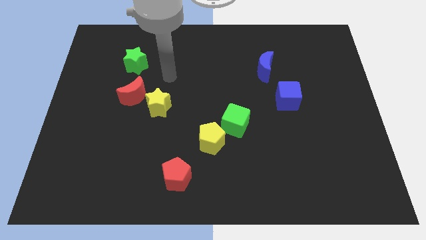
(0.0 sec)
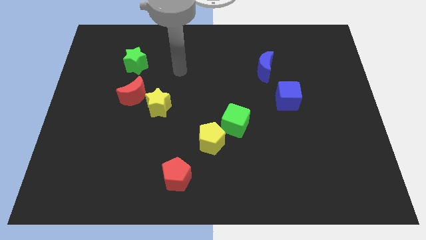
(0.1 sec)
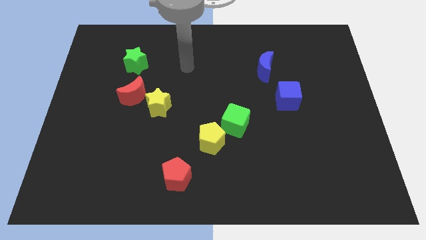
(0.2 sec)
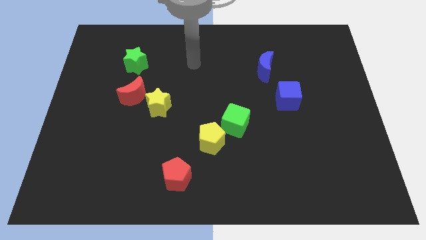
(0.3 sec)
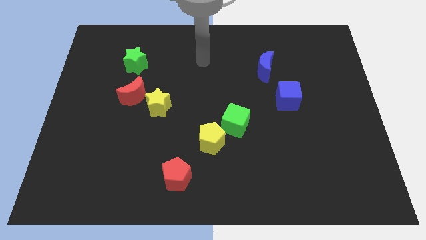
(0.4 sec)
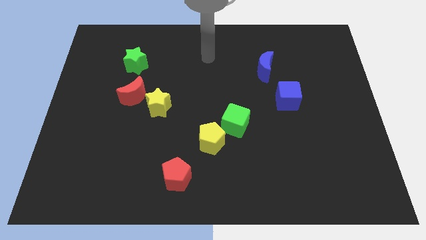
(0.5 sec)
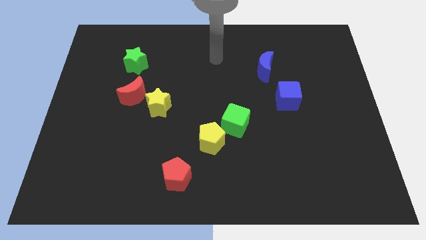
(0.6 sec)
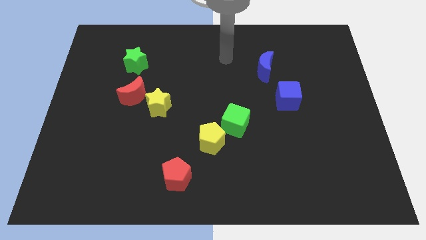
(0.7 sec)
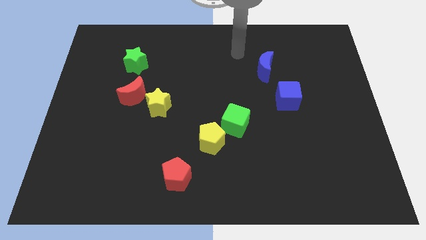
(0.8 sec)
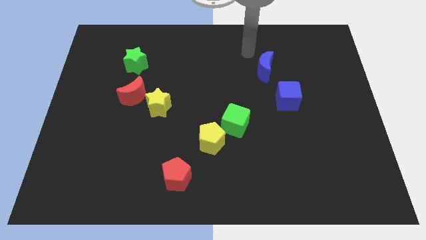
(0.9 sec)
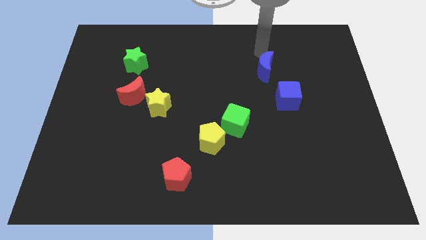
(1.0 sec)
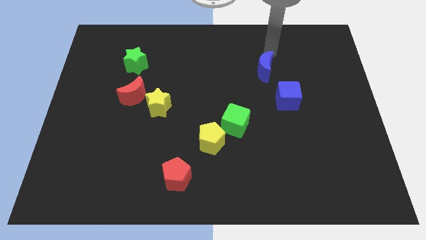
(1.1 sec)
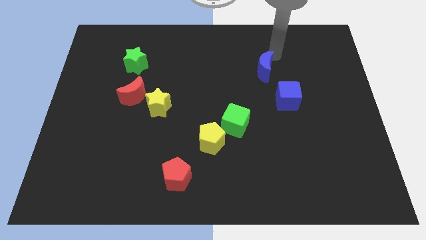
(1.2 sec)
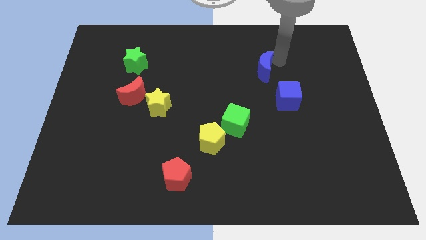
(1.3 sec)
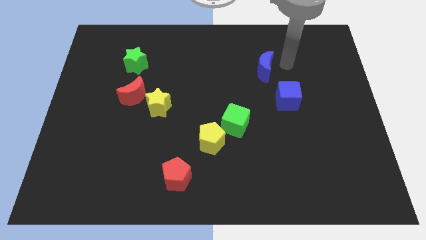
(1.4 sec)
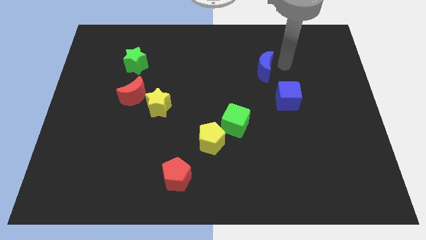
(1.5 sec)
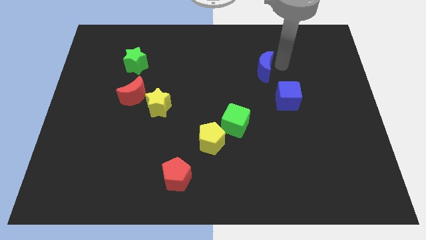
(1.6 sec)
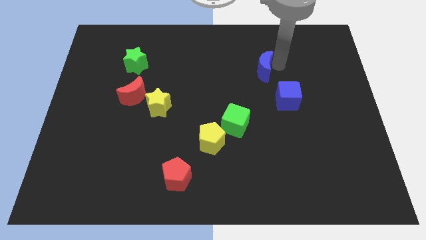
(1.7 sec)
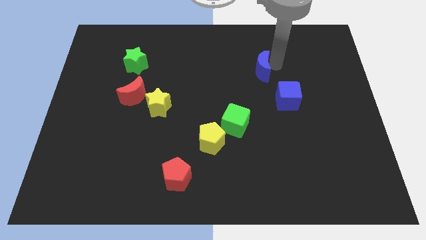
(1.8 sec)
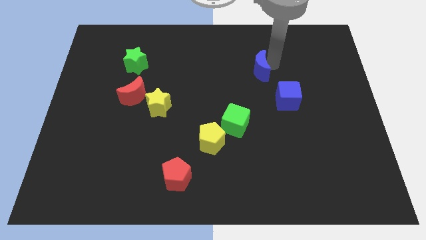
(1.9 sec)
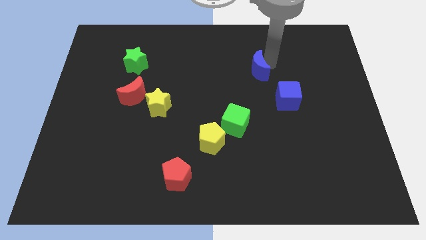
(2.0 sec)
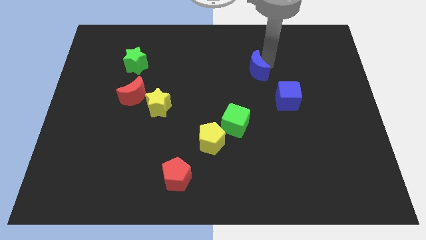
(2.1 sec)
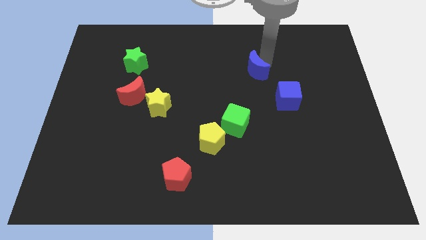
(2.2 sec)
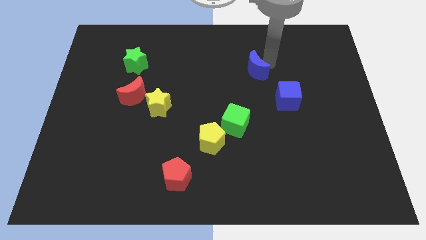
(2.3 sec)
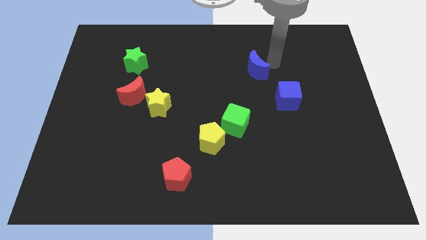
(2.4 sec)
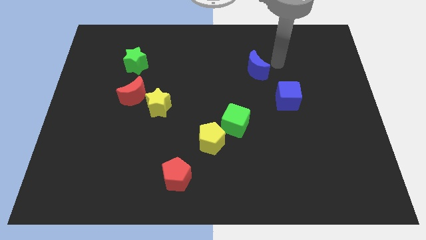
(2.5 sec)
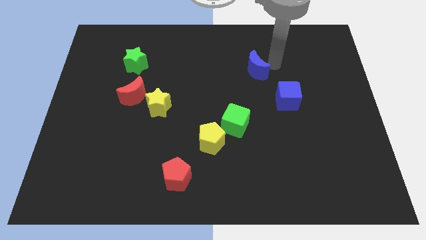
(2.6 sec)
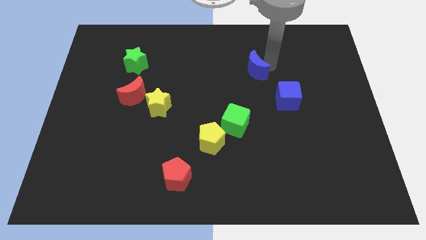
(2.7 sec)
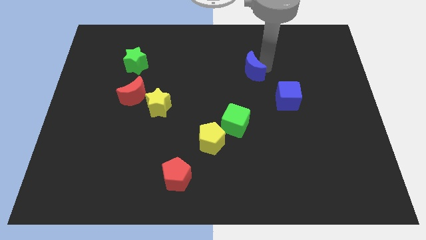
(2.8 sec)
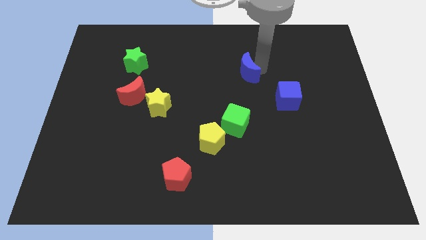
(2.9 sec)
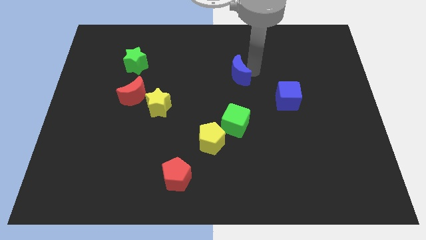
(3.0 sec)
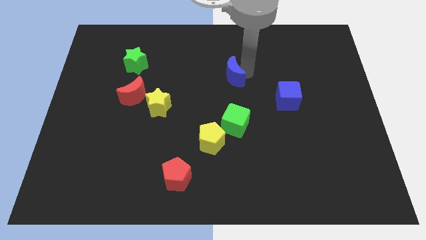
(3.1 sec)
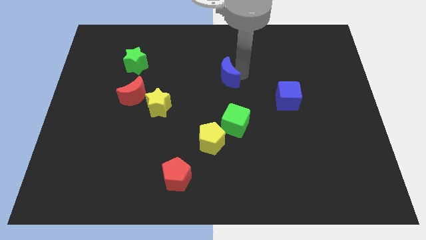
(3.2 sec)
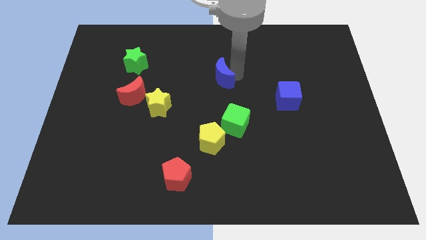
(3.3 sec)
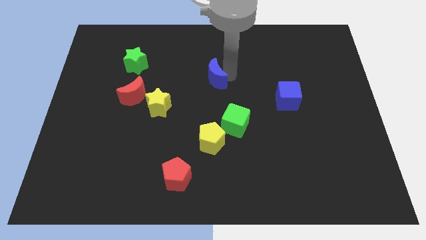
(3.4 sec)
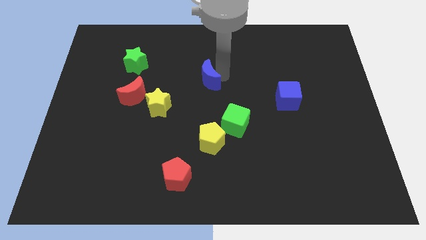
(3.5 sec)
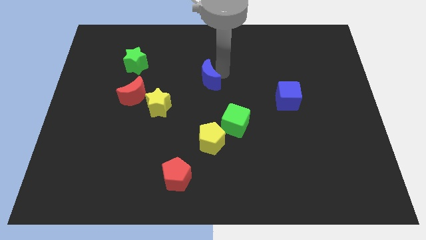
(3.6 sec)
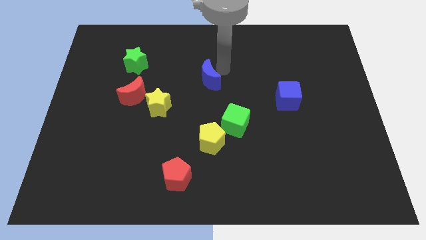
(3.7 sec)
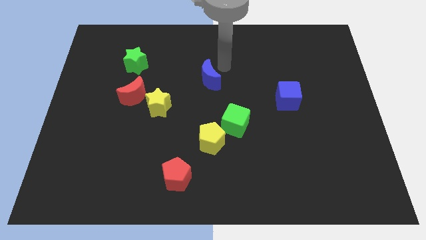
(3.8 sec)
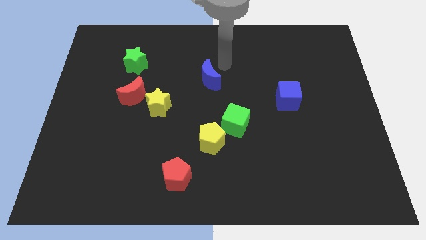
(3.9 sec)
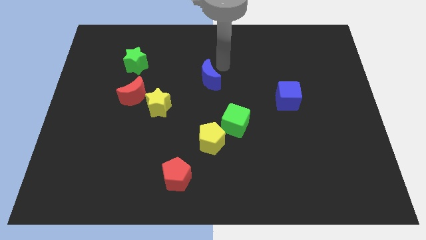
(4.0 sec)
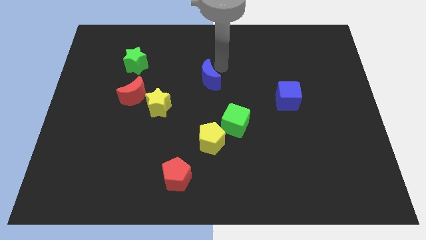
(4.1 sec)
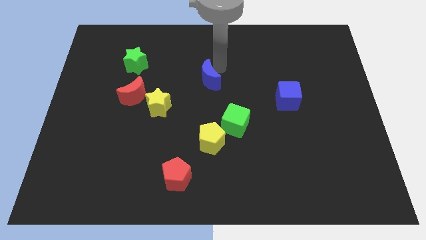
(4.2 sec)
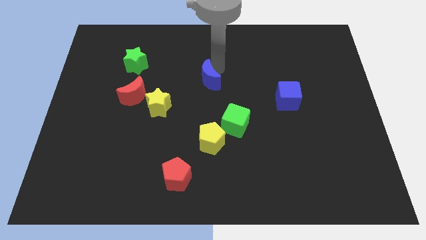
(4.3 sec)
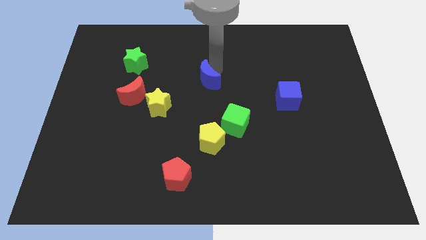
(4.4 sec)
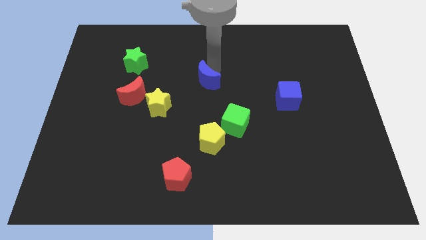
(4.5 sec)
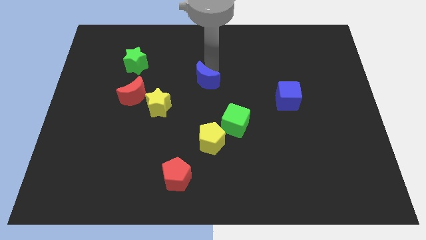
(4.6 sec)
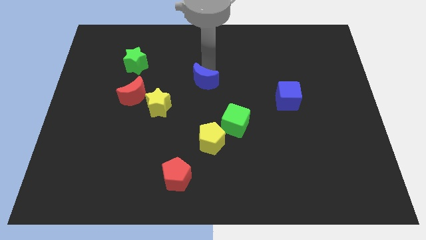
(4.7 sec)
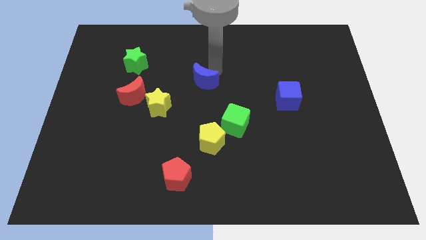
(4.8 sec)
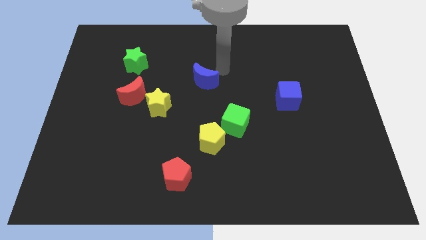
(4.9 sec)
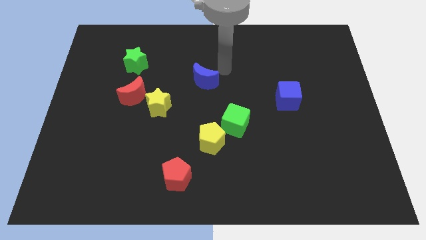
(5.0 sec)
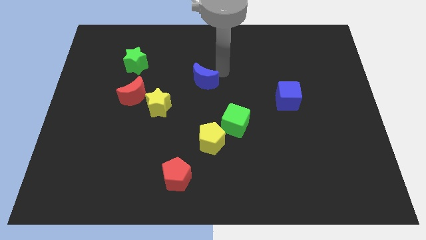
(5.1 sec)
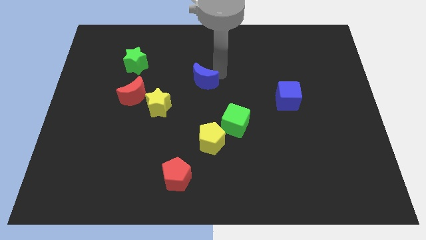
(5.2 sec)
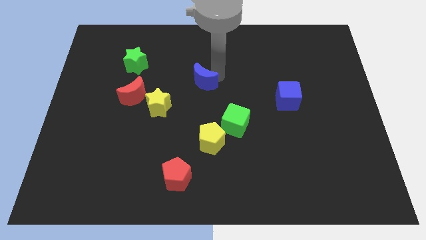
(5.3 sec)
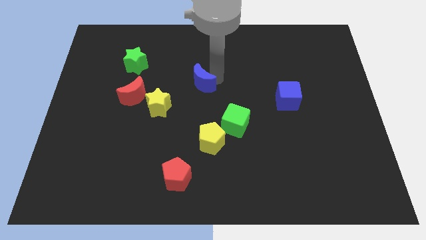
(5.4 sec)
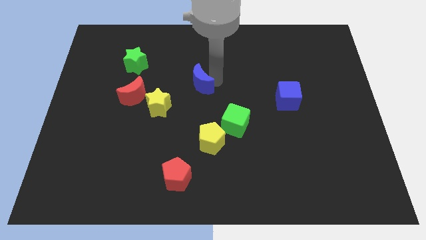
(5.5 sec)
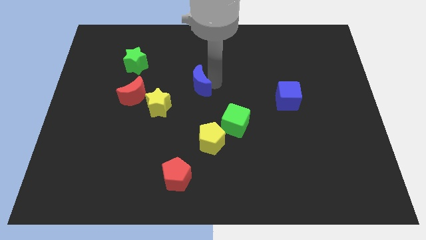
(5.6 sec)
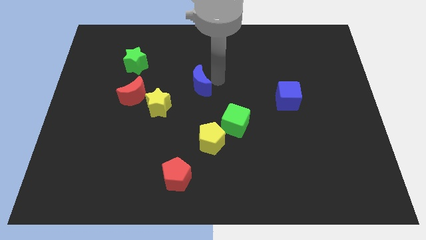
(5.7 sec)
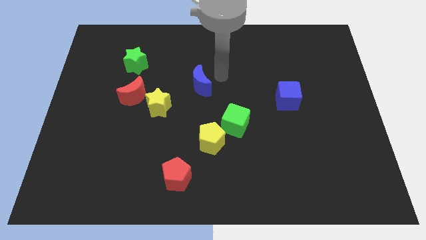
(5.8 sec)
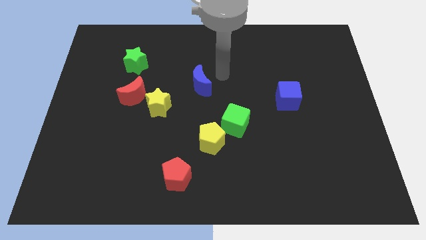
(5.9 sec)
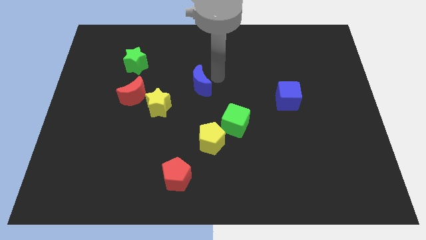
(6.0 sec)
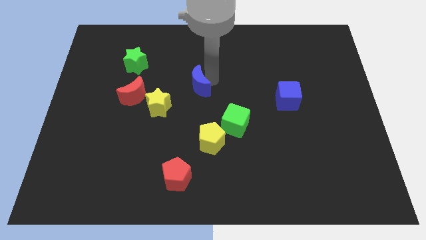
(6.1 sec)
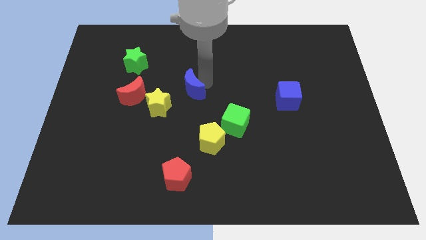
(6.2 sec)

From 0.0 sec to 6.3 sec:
push the blue moon to the right of the red moon
